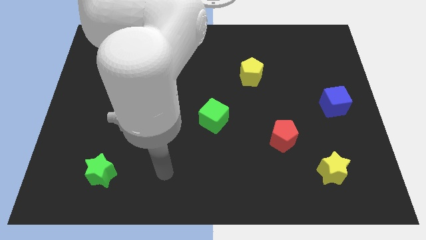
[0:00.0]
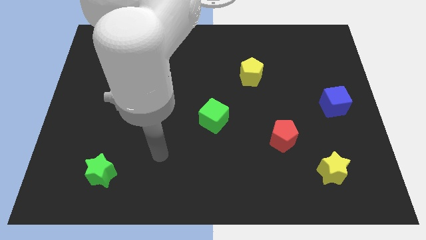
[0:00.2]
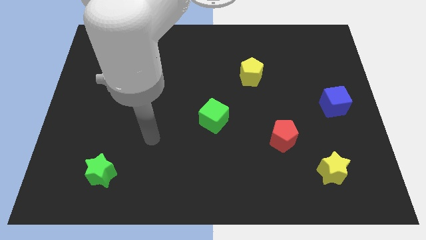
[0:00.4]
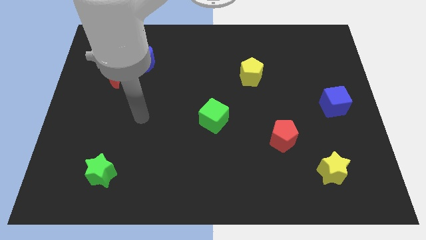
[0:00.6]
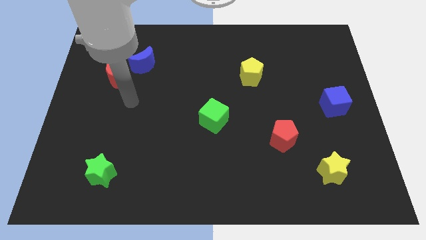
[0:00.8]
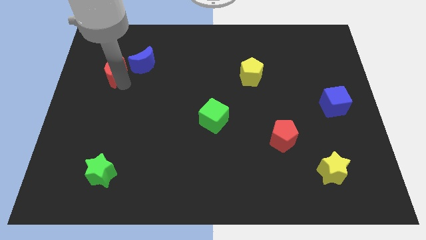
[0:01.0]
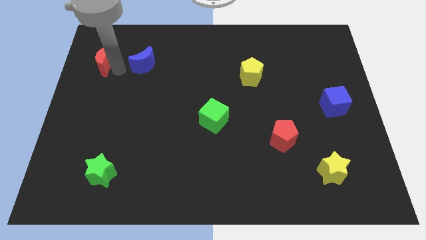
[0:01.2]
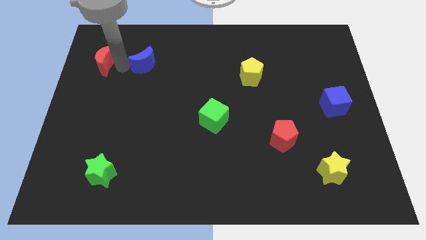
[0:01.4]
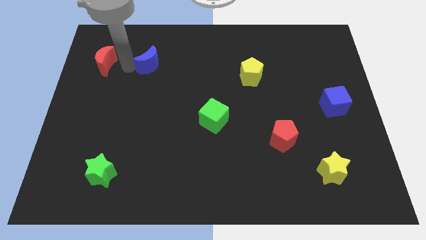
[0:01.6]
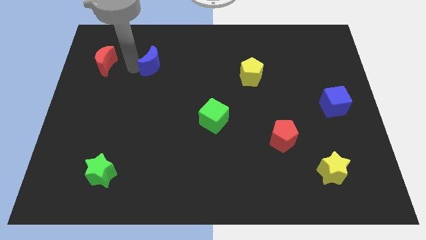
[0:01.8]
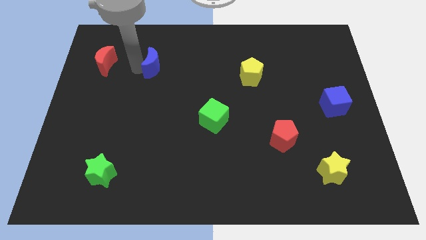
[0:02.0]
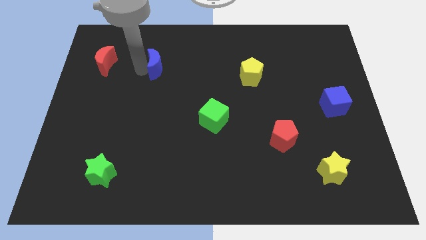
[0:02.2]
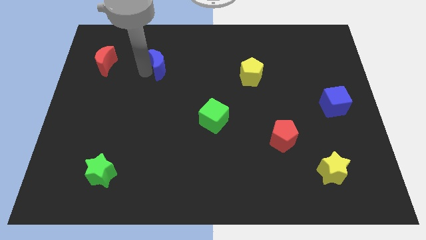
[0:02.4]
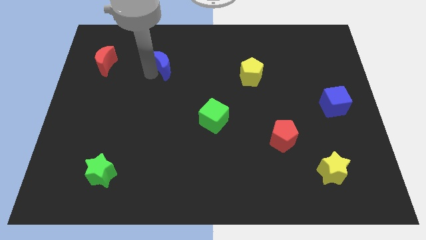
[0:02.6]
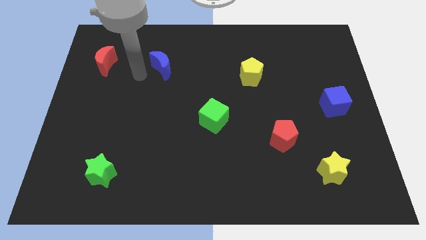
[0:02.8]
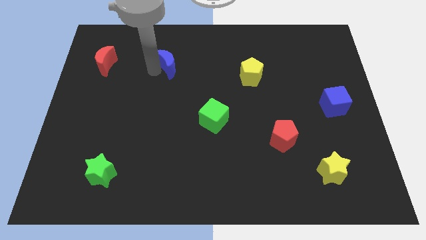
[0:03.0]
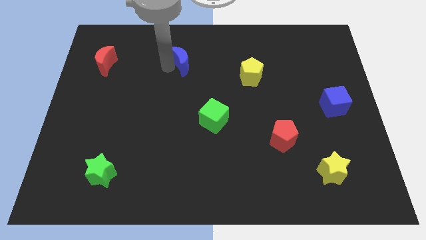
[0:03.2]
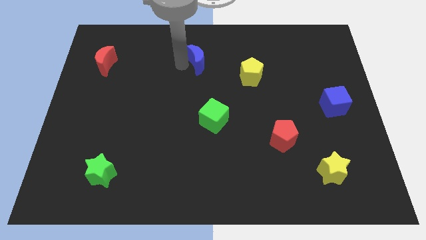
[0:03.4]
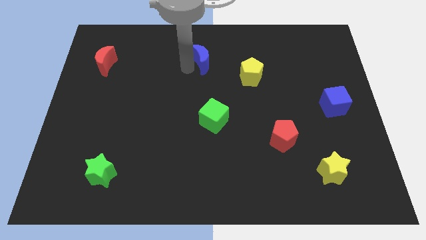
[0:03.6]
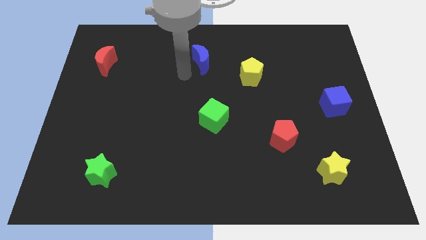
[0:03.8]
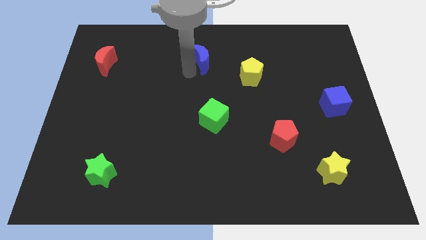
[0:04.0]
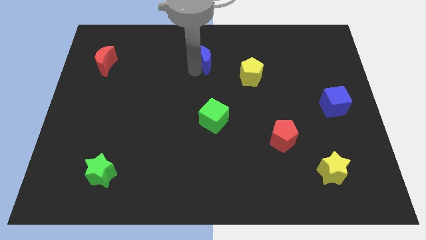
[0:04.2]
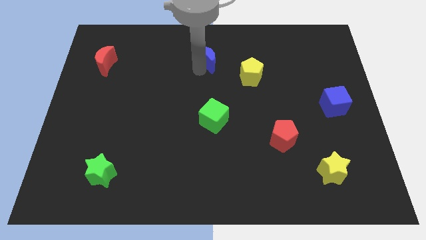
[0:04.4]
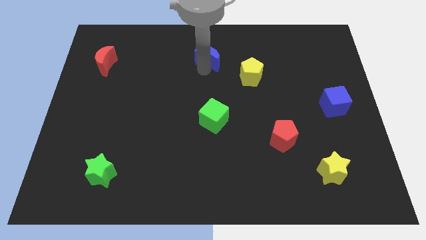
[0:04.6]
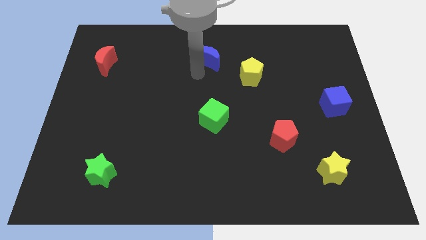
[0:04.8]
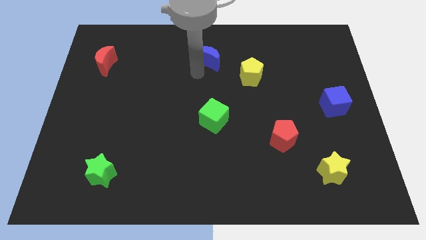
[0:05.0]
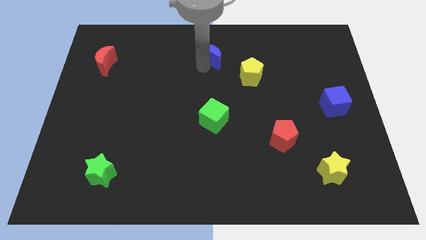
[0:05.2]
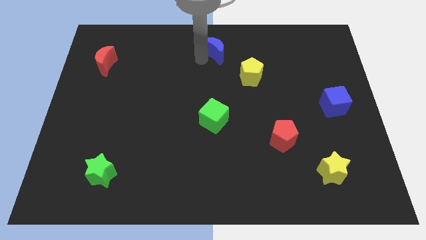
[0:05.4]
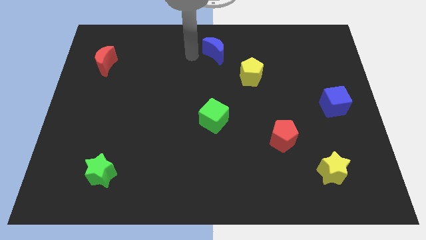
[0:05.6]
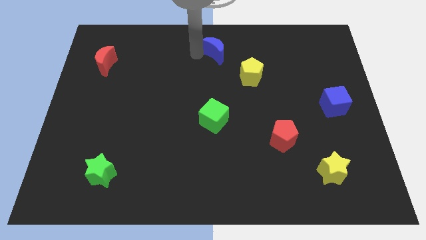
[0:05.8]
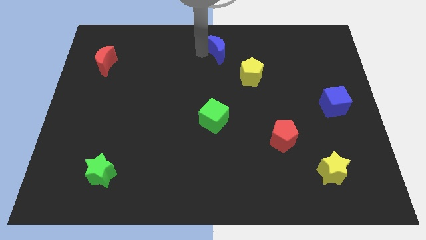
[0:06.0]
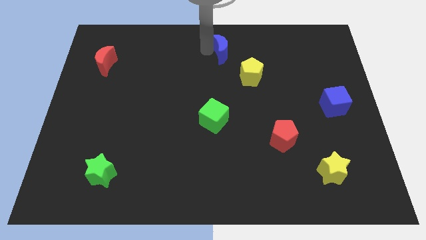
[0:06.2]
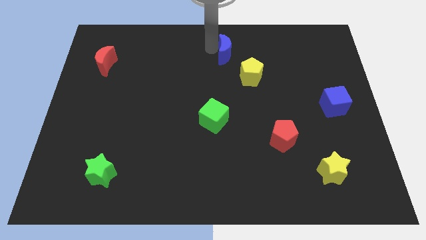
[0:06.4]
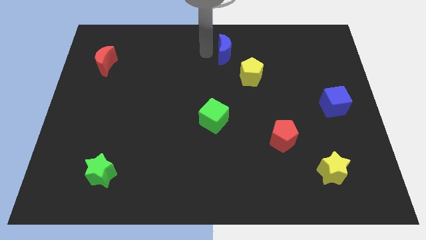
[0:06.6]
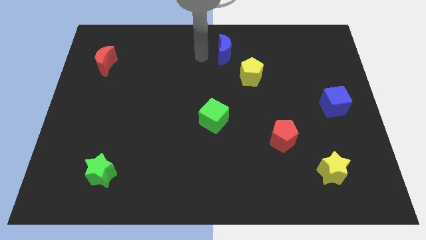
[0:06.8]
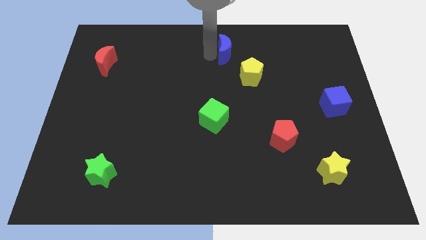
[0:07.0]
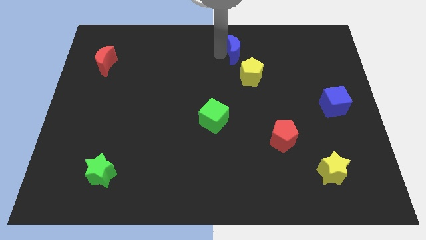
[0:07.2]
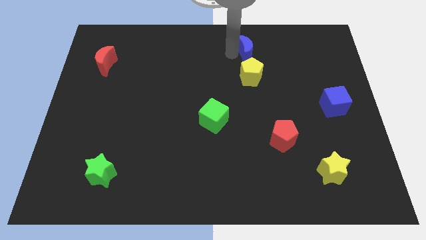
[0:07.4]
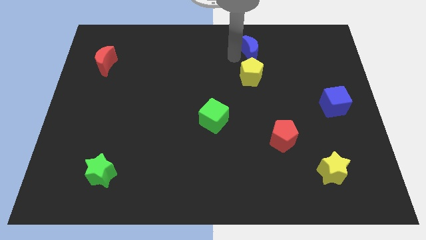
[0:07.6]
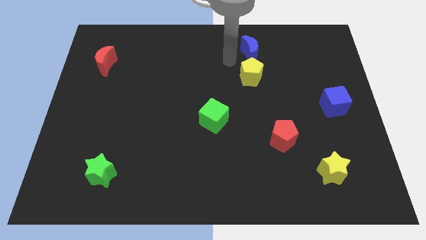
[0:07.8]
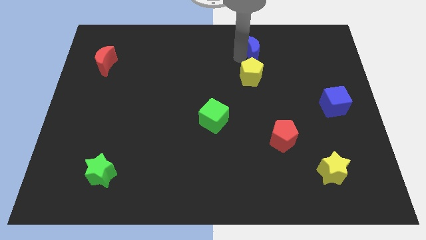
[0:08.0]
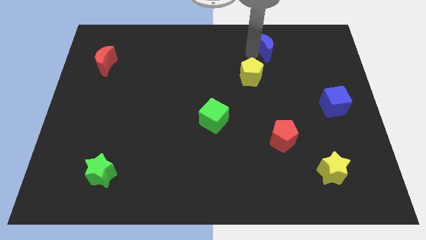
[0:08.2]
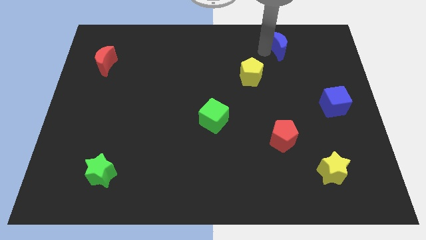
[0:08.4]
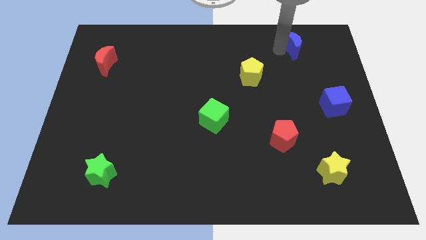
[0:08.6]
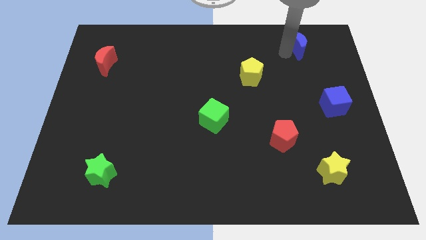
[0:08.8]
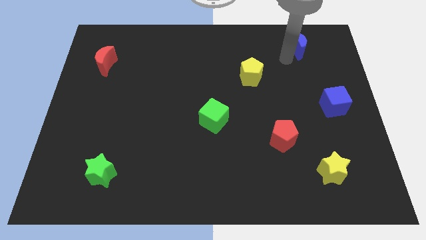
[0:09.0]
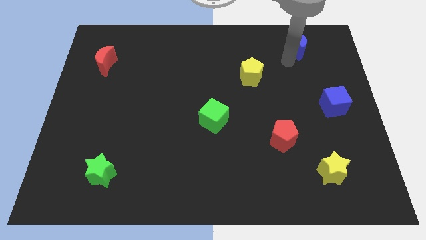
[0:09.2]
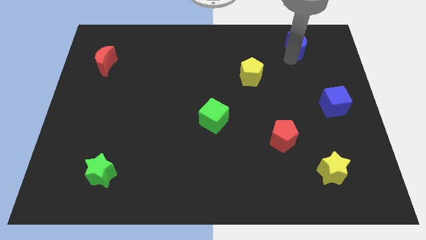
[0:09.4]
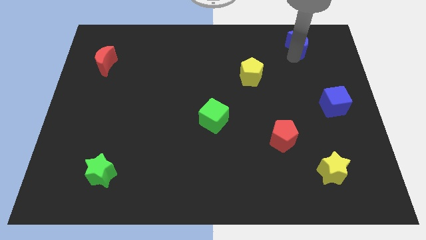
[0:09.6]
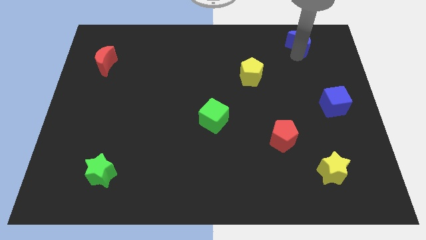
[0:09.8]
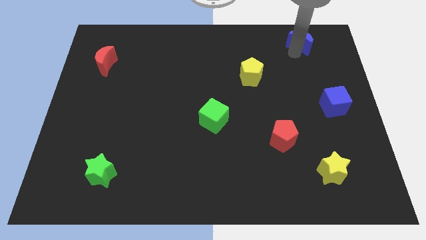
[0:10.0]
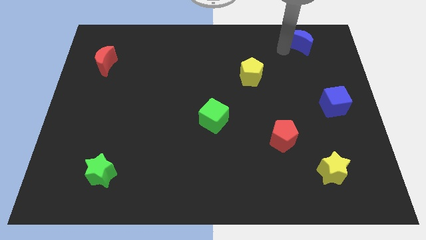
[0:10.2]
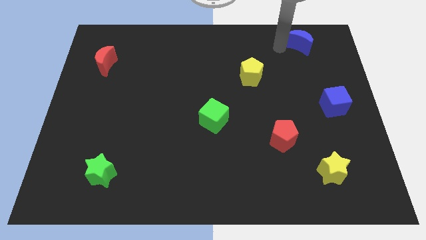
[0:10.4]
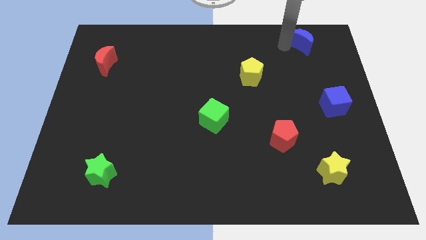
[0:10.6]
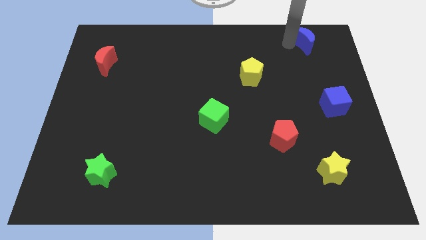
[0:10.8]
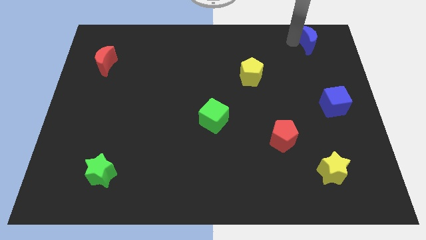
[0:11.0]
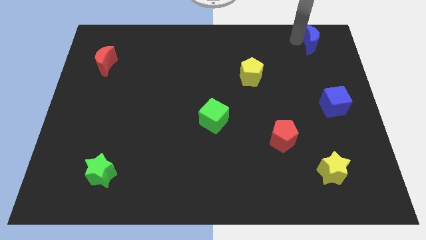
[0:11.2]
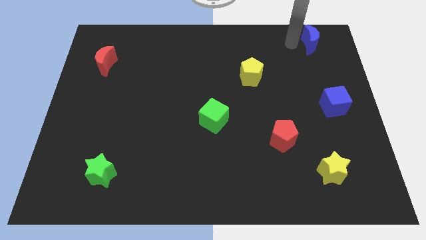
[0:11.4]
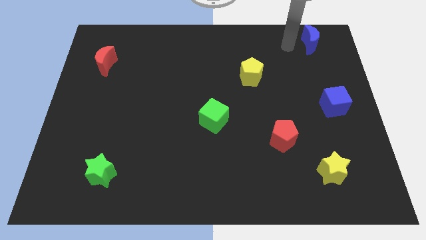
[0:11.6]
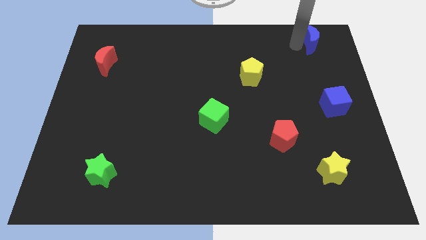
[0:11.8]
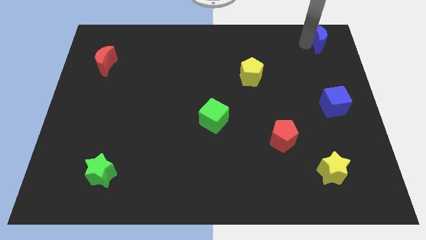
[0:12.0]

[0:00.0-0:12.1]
put the blue moon to the top right

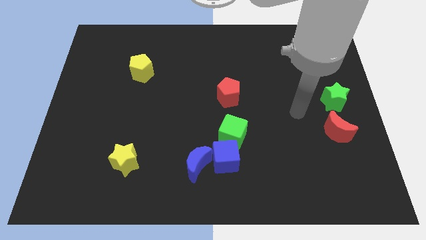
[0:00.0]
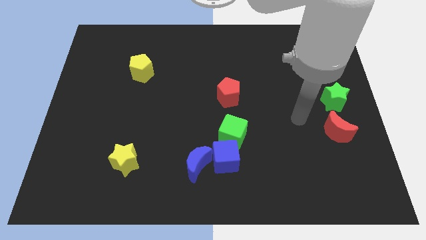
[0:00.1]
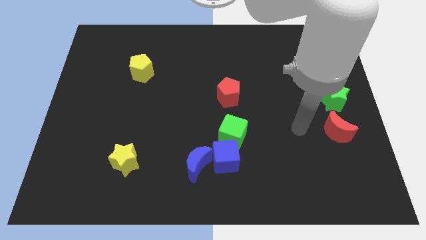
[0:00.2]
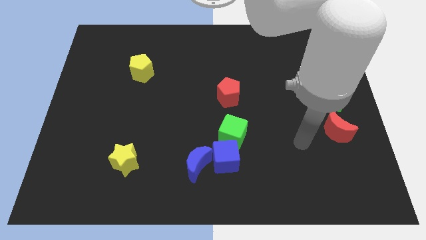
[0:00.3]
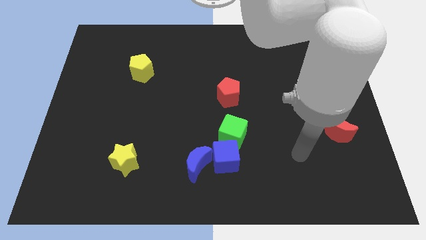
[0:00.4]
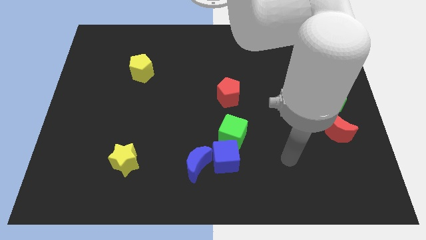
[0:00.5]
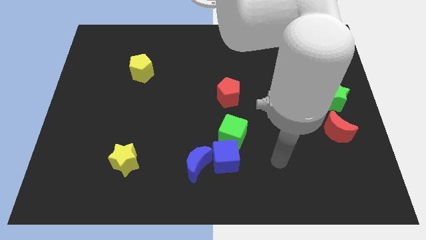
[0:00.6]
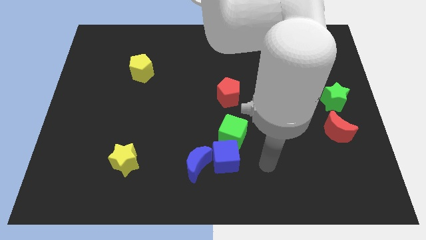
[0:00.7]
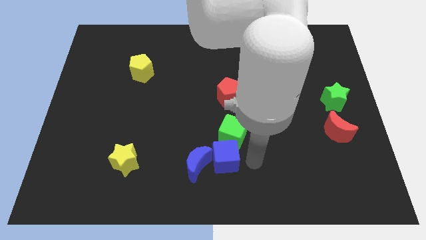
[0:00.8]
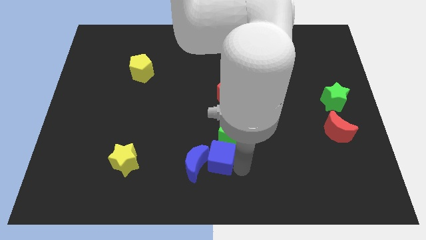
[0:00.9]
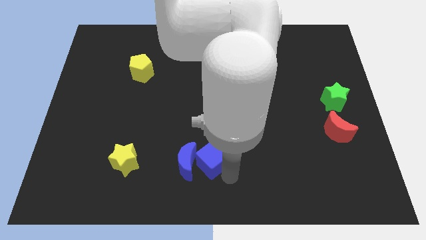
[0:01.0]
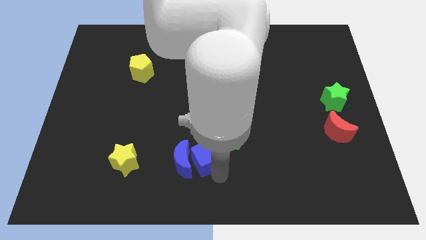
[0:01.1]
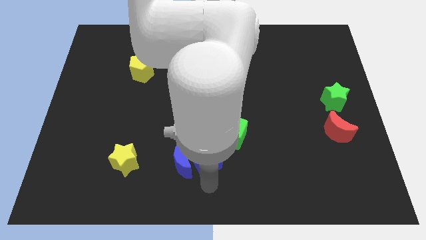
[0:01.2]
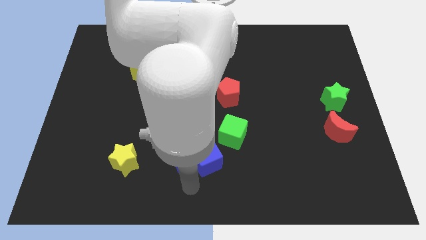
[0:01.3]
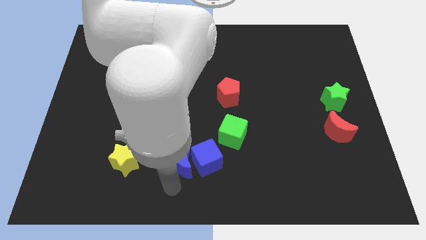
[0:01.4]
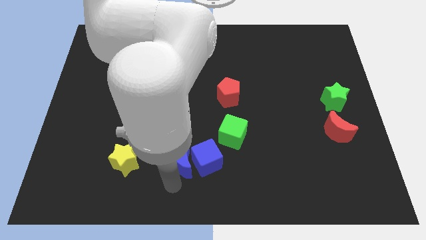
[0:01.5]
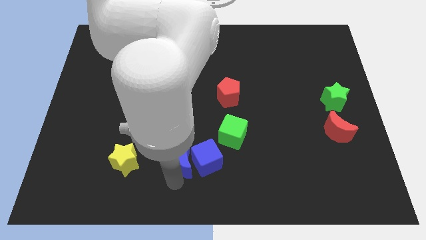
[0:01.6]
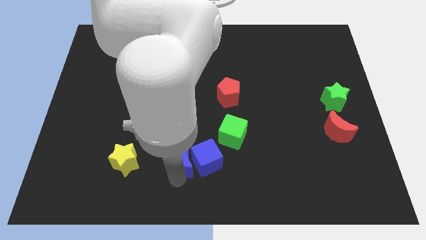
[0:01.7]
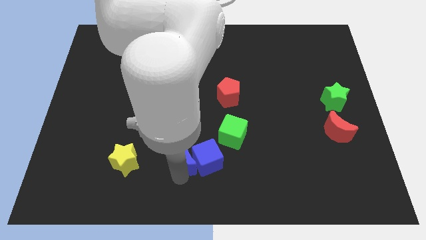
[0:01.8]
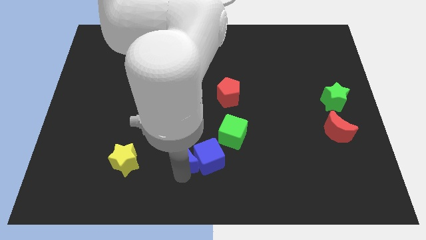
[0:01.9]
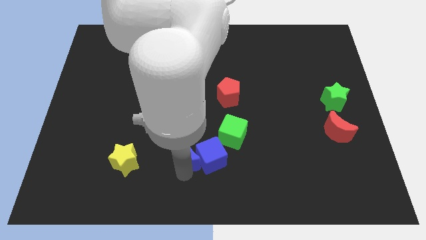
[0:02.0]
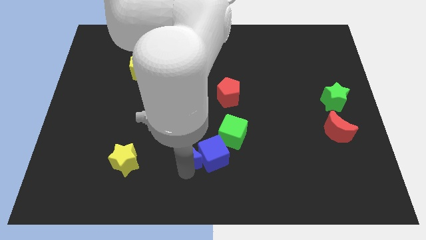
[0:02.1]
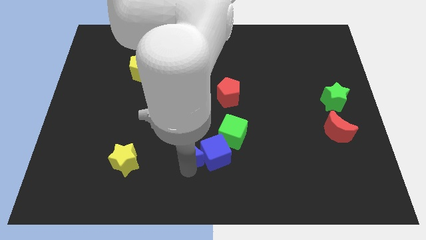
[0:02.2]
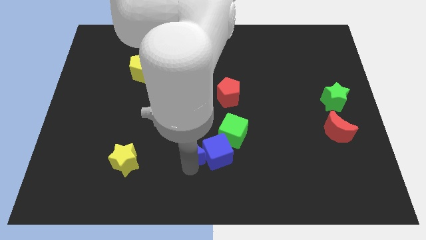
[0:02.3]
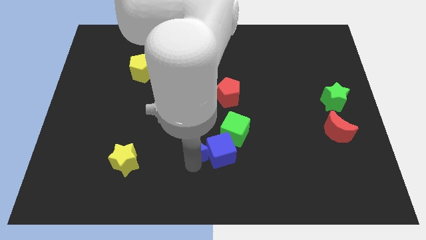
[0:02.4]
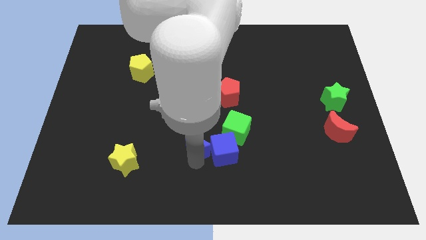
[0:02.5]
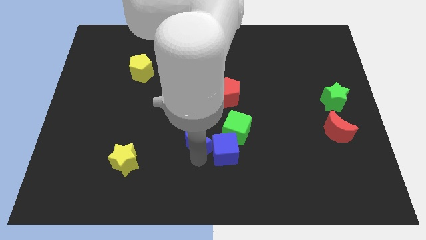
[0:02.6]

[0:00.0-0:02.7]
move the blue moon to the center
